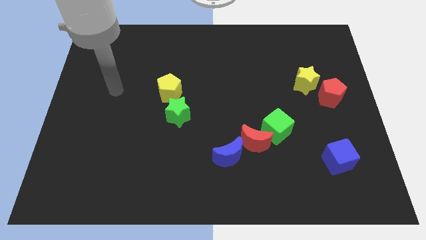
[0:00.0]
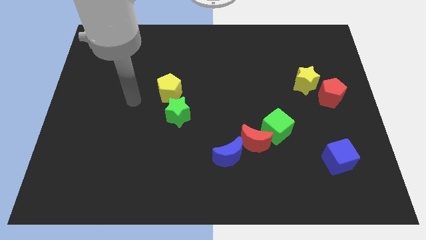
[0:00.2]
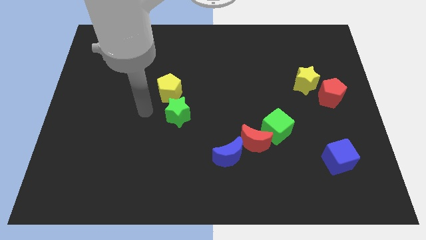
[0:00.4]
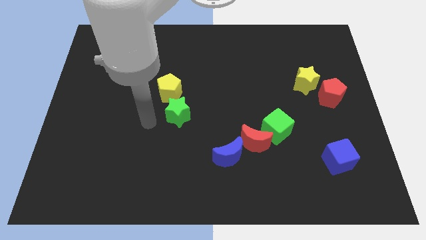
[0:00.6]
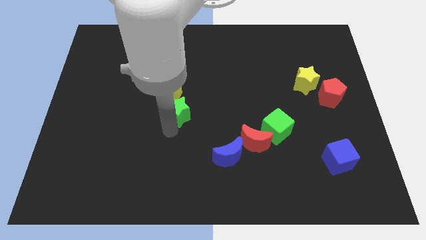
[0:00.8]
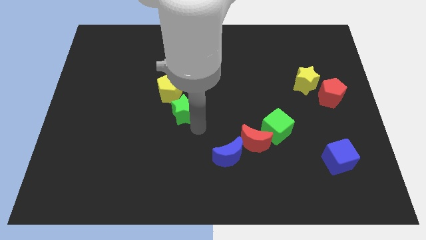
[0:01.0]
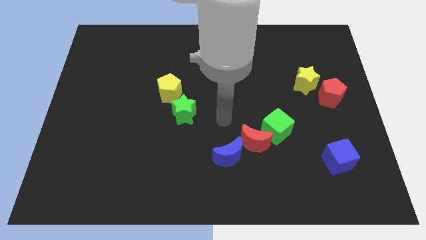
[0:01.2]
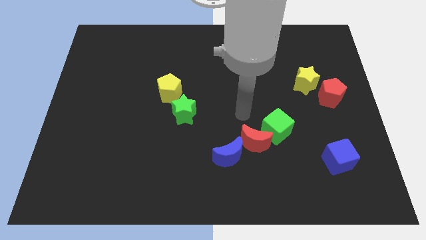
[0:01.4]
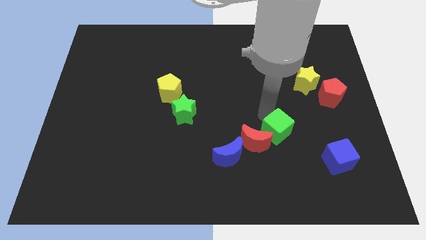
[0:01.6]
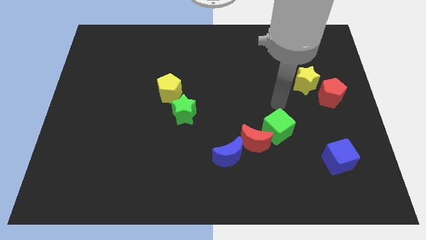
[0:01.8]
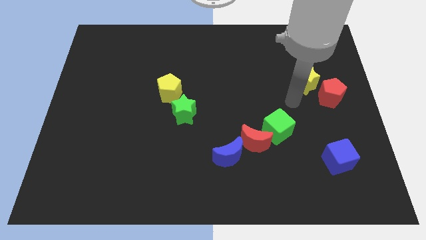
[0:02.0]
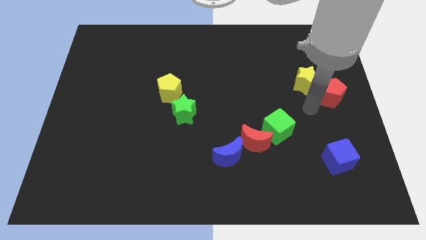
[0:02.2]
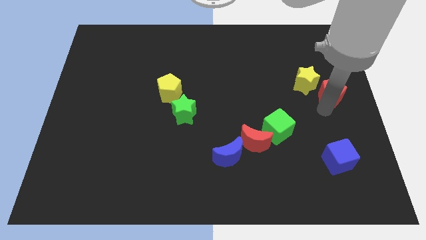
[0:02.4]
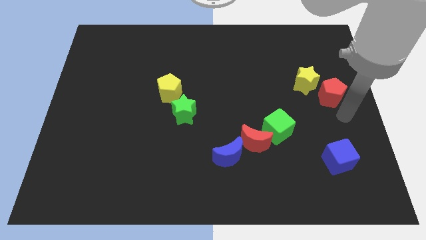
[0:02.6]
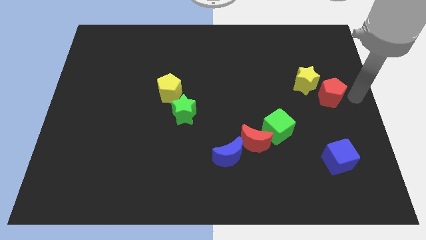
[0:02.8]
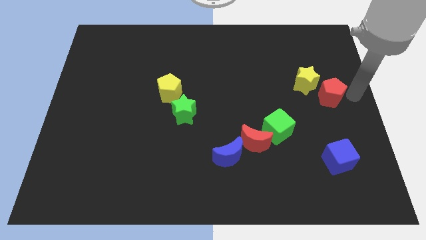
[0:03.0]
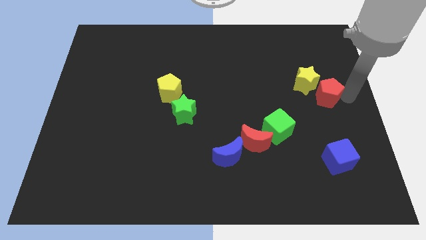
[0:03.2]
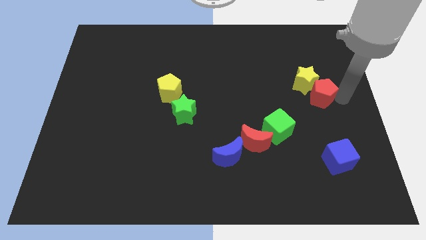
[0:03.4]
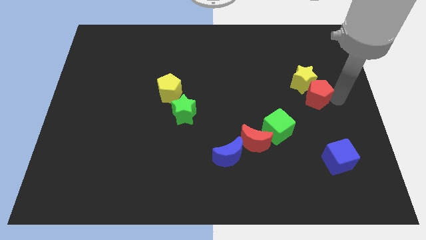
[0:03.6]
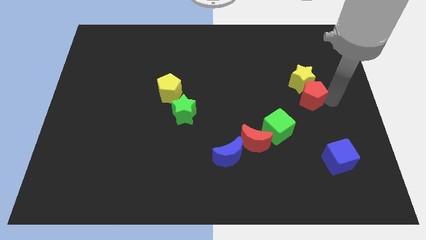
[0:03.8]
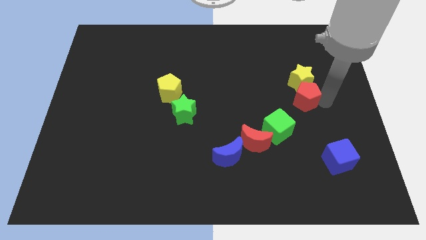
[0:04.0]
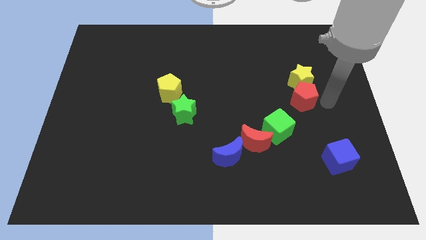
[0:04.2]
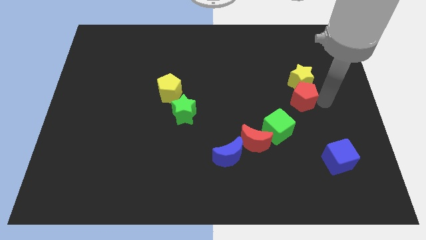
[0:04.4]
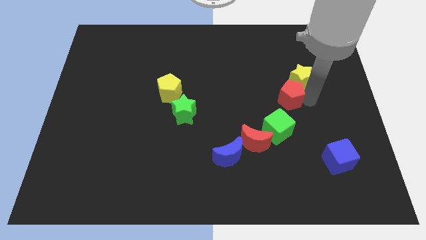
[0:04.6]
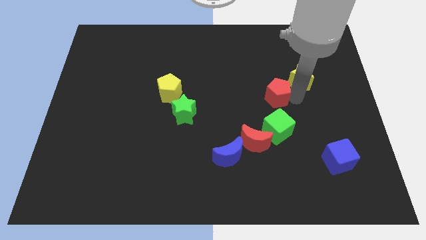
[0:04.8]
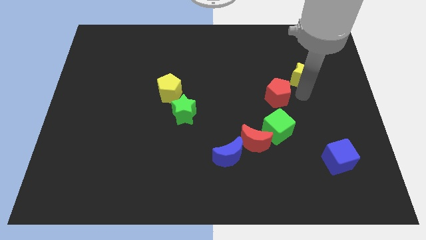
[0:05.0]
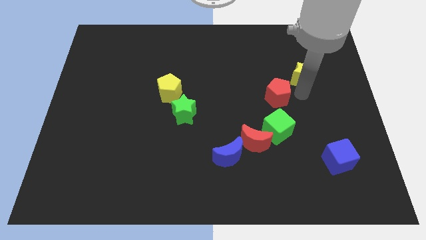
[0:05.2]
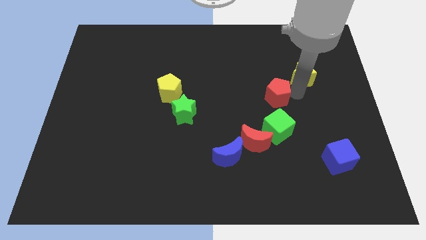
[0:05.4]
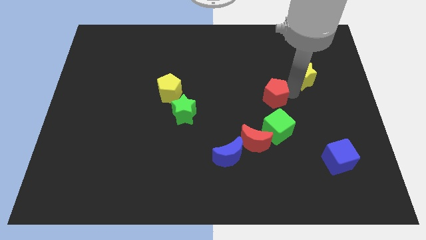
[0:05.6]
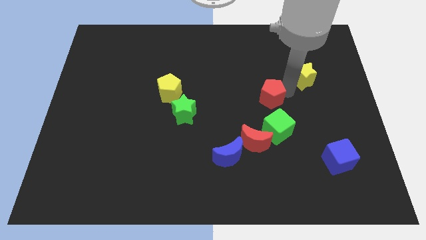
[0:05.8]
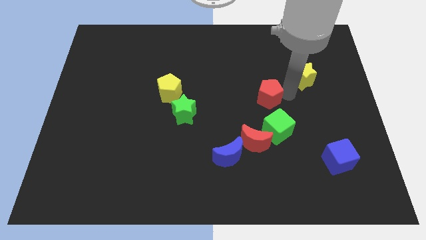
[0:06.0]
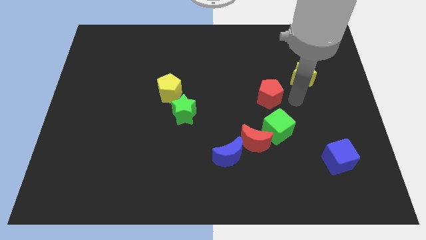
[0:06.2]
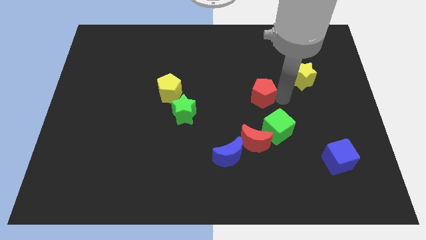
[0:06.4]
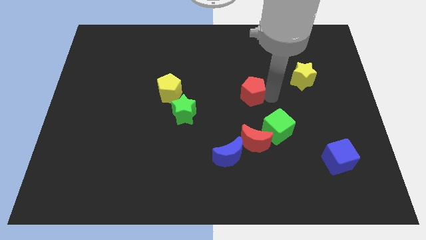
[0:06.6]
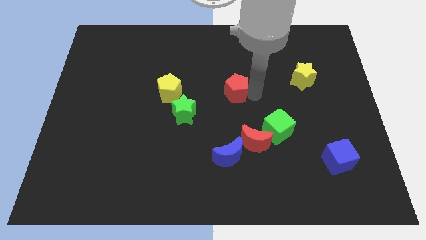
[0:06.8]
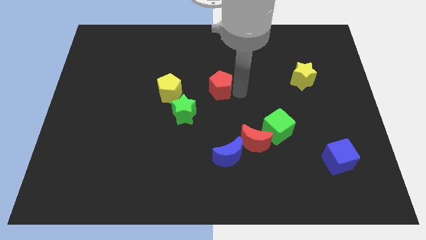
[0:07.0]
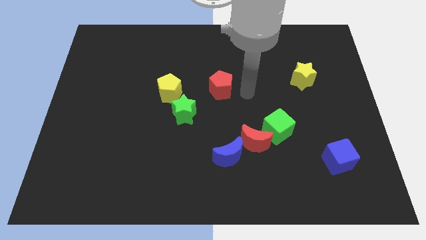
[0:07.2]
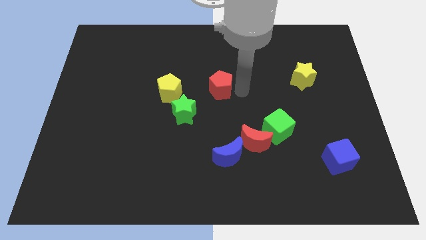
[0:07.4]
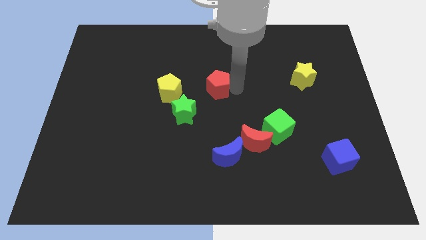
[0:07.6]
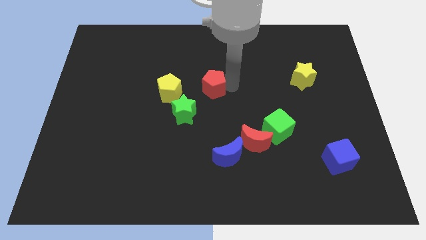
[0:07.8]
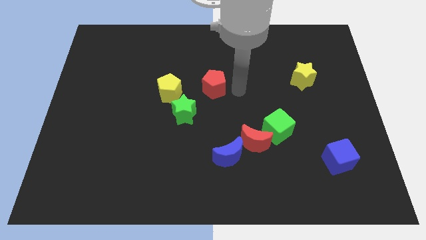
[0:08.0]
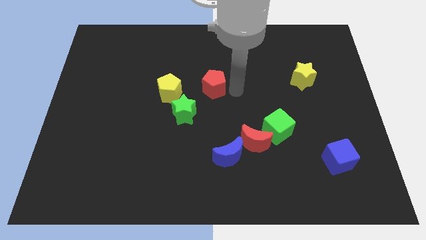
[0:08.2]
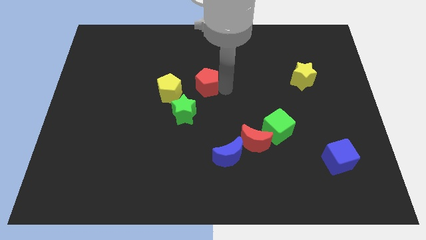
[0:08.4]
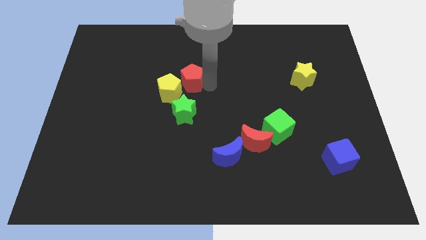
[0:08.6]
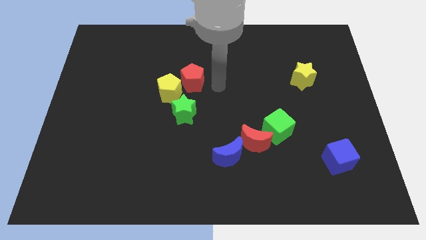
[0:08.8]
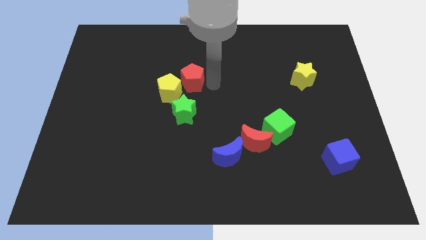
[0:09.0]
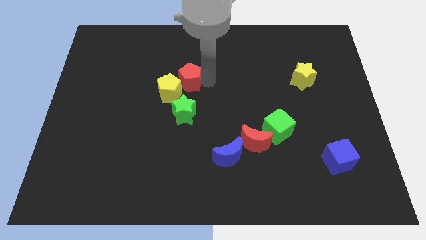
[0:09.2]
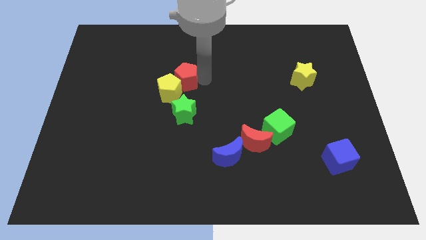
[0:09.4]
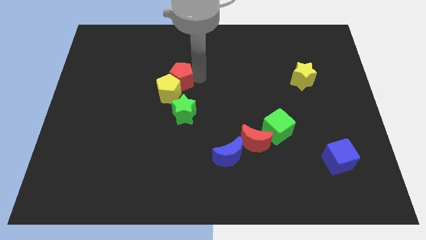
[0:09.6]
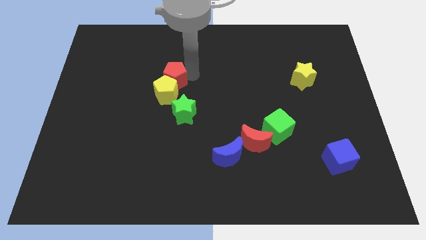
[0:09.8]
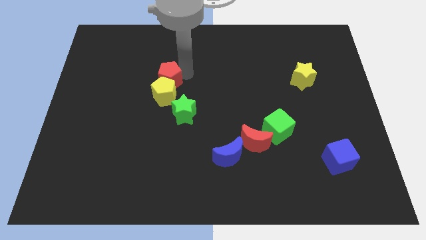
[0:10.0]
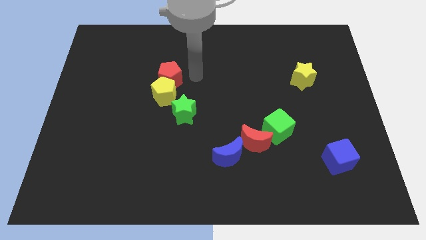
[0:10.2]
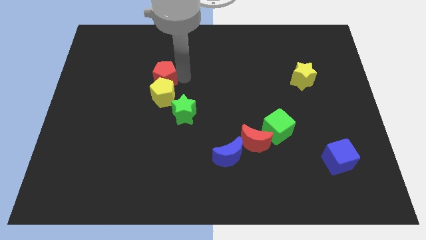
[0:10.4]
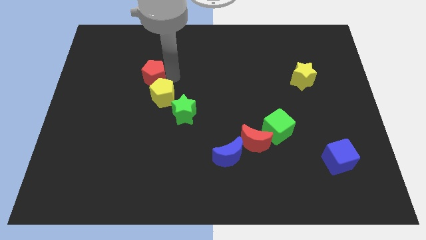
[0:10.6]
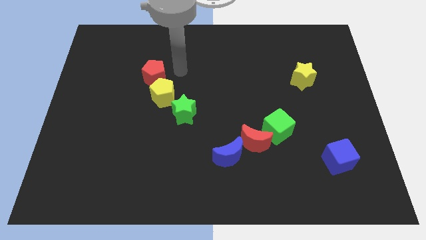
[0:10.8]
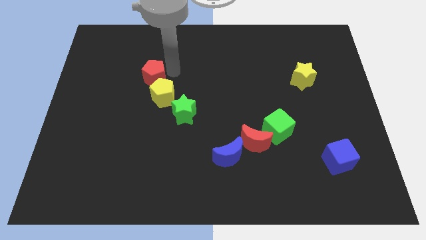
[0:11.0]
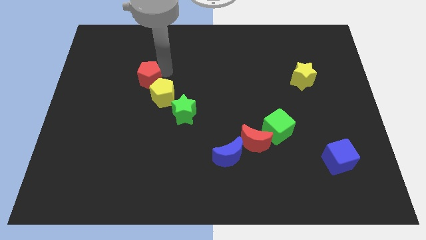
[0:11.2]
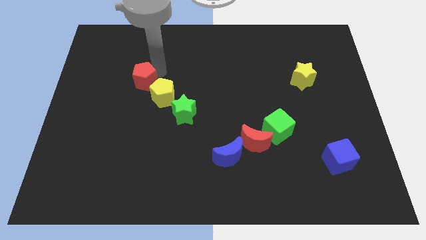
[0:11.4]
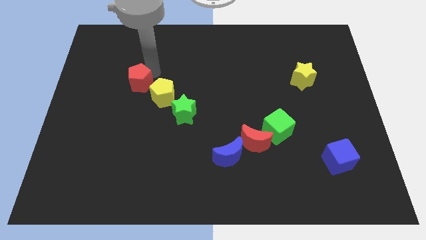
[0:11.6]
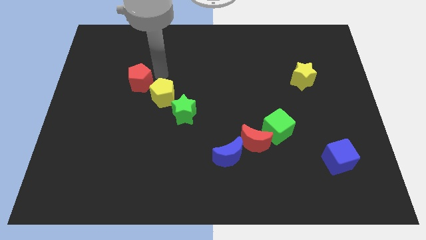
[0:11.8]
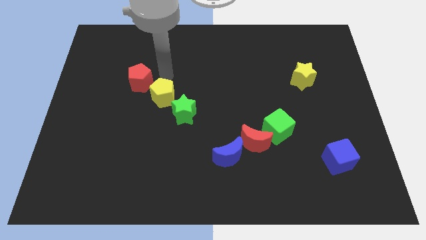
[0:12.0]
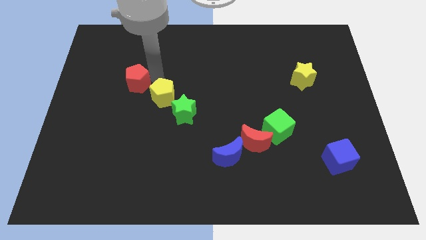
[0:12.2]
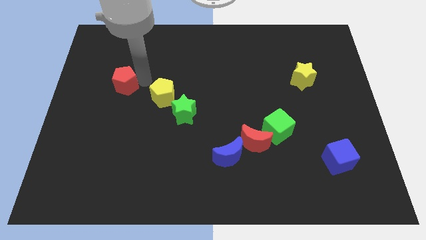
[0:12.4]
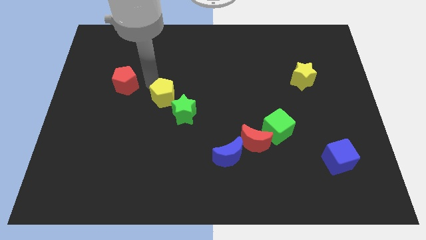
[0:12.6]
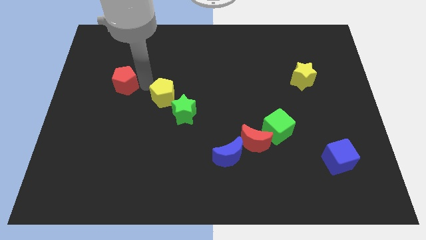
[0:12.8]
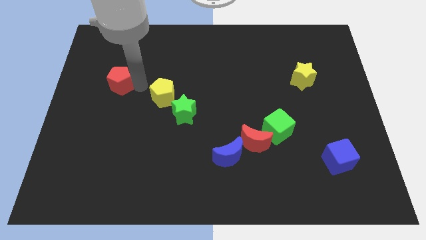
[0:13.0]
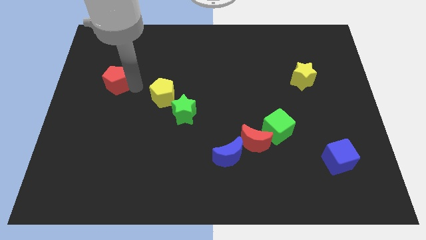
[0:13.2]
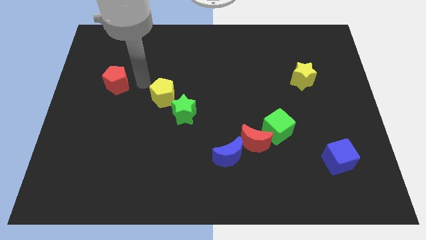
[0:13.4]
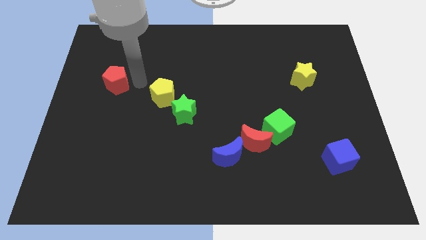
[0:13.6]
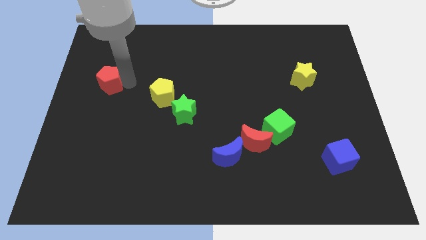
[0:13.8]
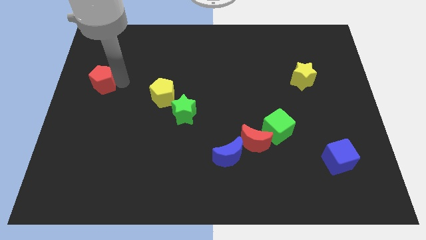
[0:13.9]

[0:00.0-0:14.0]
push the red pentagon to the left side of the board
